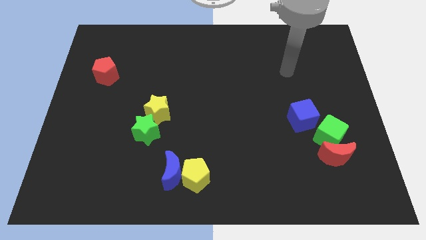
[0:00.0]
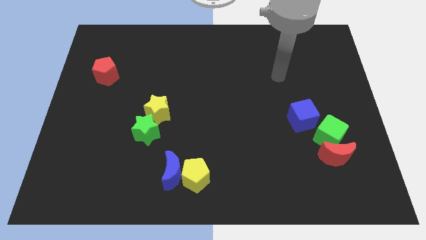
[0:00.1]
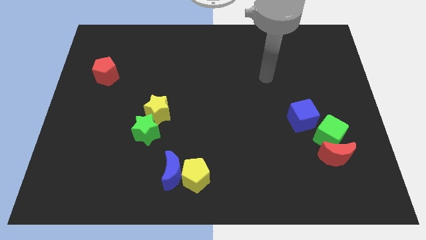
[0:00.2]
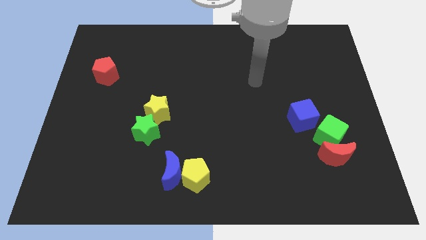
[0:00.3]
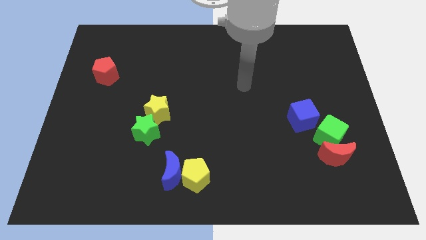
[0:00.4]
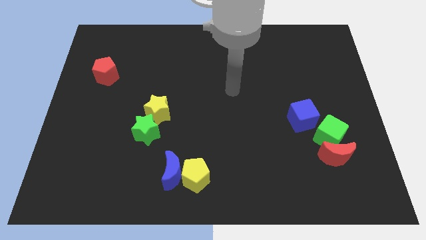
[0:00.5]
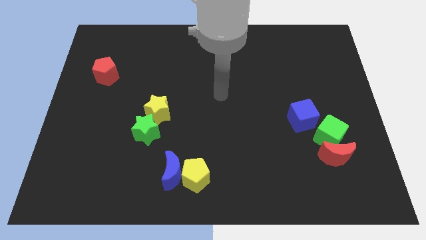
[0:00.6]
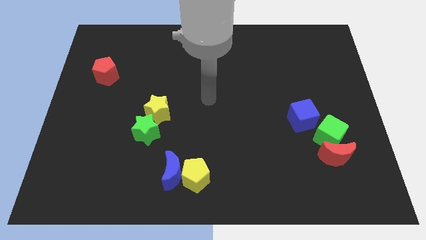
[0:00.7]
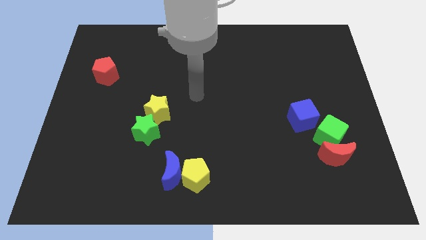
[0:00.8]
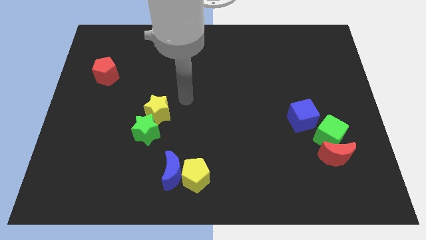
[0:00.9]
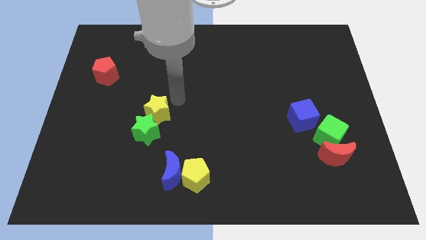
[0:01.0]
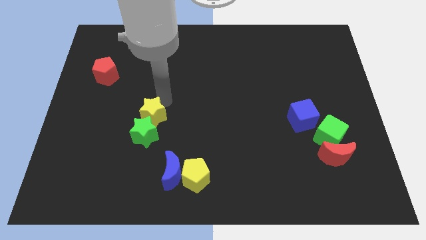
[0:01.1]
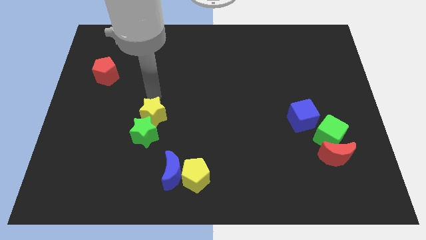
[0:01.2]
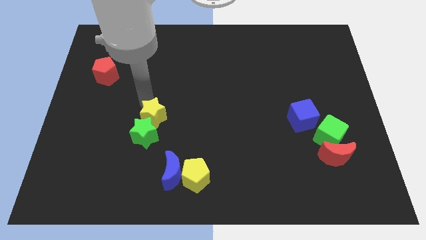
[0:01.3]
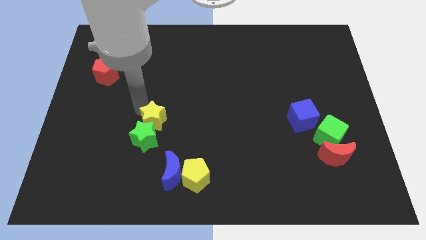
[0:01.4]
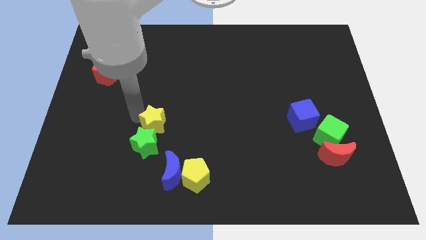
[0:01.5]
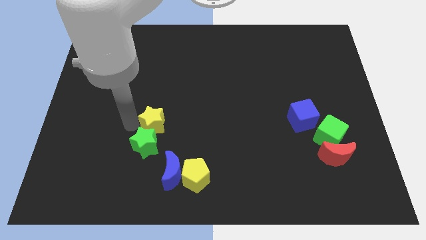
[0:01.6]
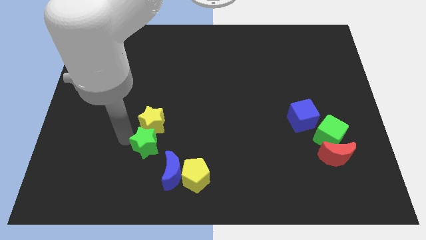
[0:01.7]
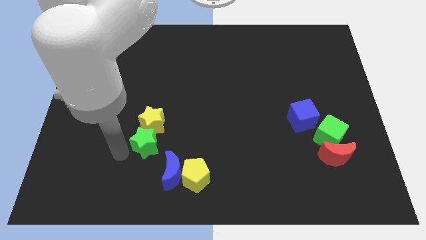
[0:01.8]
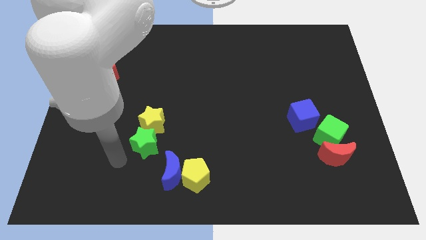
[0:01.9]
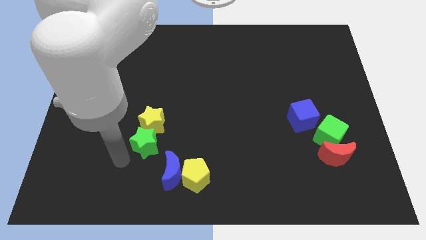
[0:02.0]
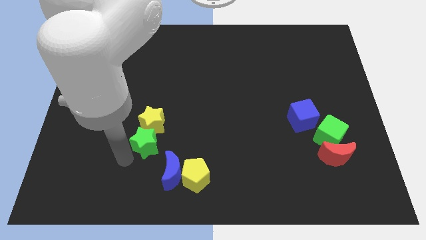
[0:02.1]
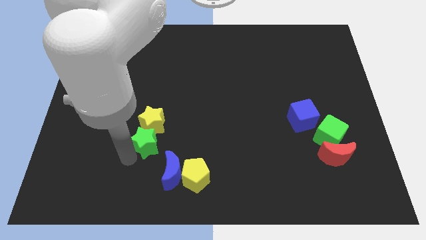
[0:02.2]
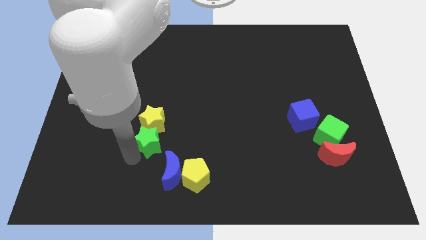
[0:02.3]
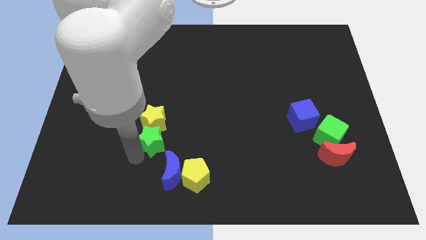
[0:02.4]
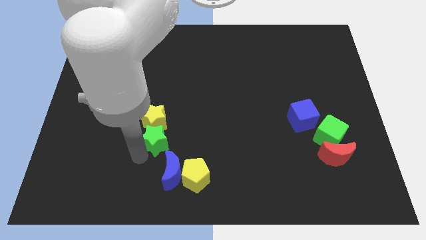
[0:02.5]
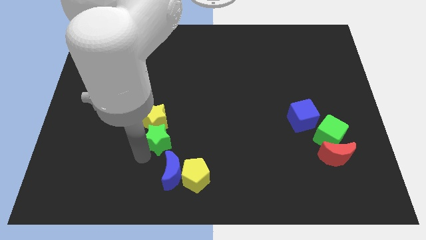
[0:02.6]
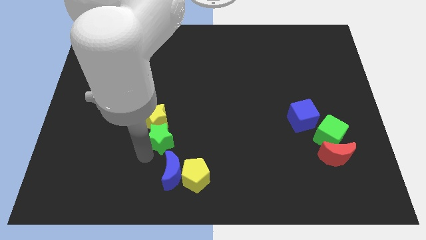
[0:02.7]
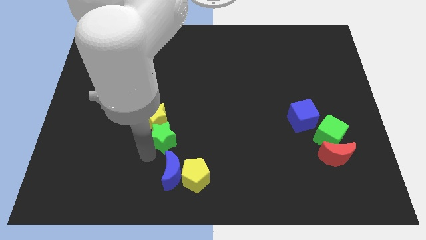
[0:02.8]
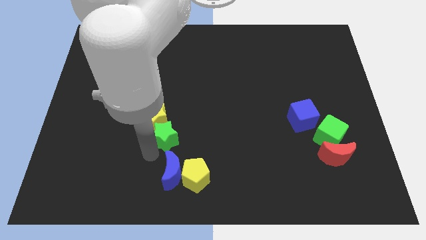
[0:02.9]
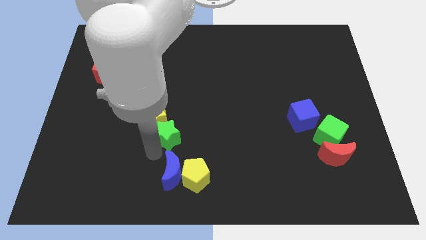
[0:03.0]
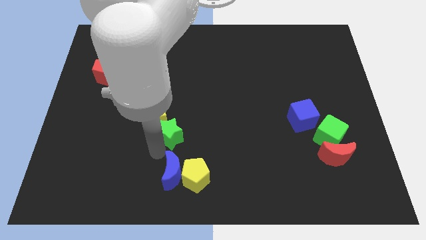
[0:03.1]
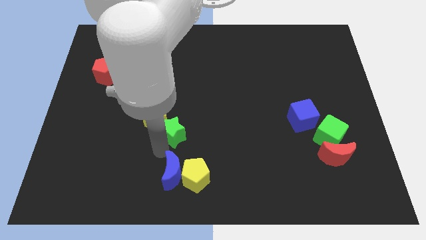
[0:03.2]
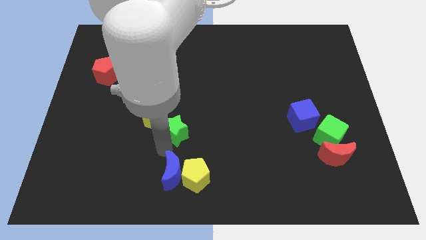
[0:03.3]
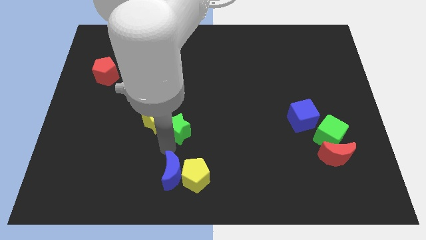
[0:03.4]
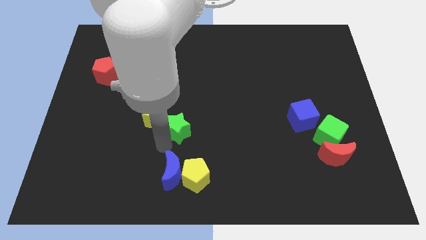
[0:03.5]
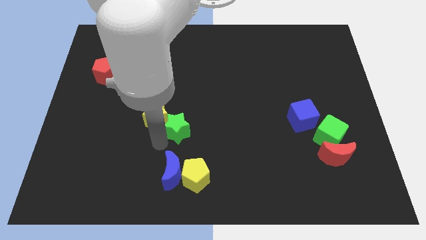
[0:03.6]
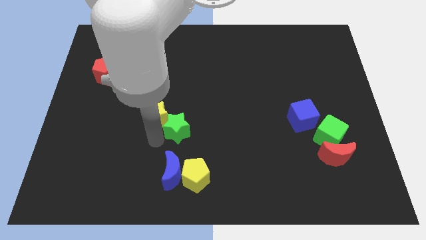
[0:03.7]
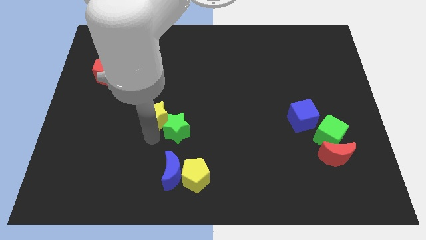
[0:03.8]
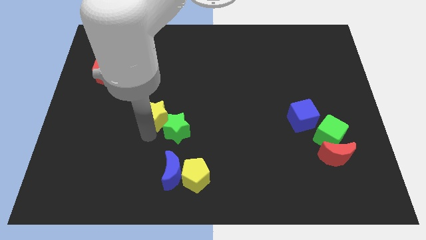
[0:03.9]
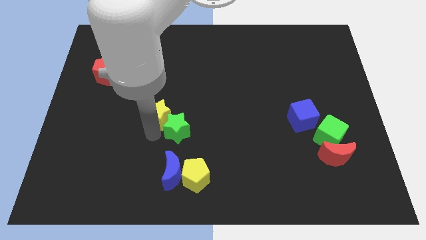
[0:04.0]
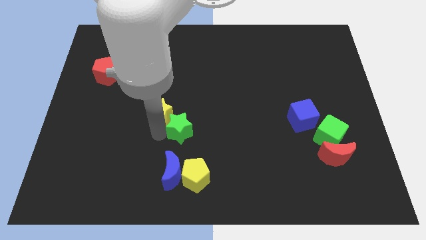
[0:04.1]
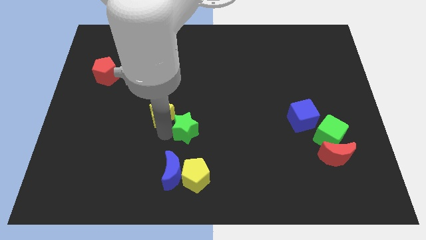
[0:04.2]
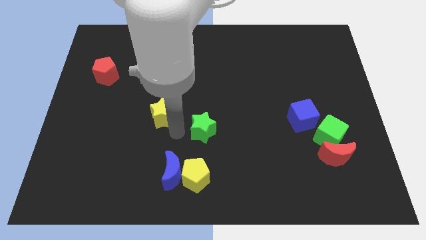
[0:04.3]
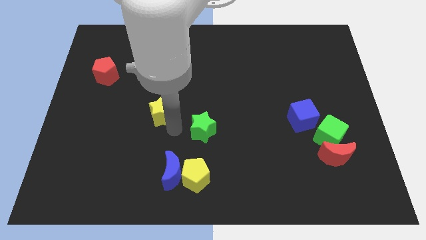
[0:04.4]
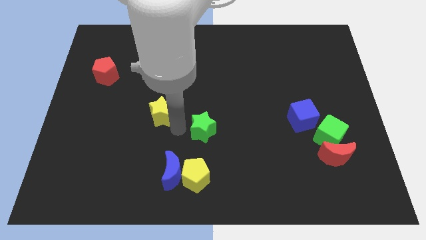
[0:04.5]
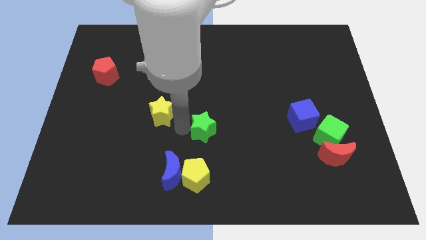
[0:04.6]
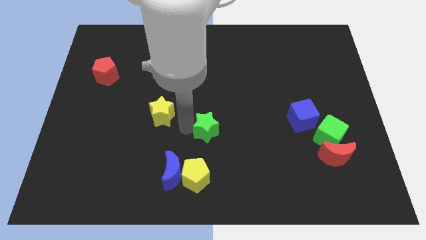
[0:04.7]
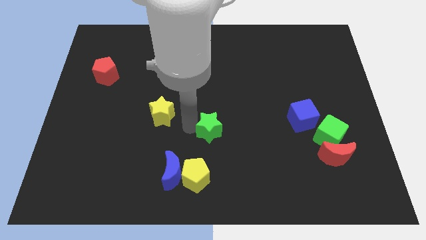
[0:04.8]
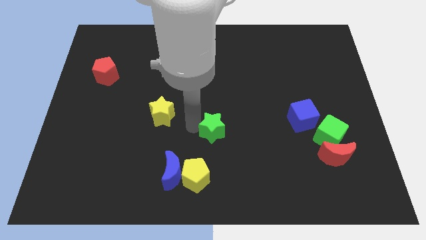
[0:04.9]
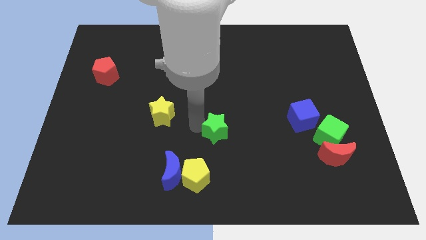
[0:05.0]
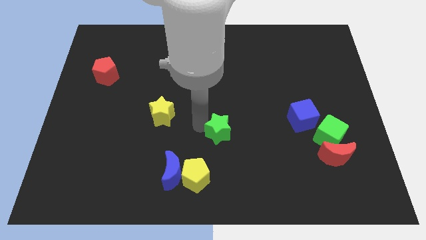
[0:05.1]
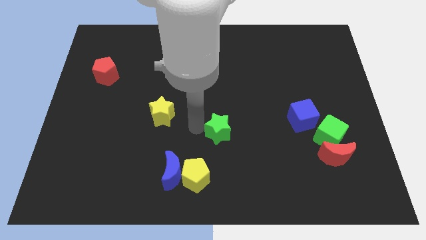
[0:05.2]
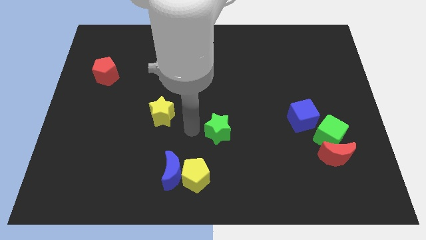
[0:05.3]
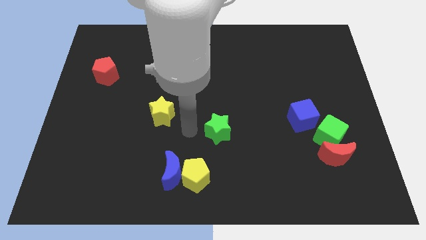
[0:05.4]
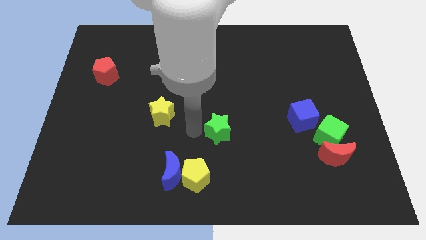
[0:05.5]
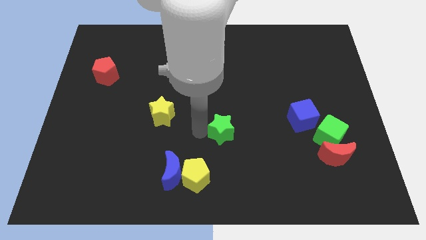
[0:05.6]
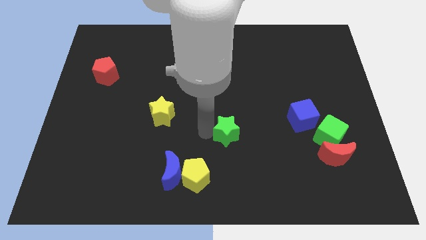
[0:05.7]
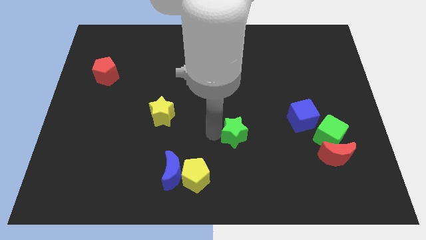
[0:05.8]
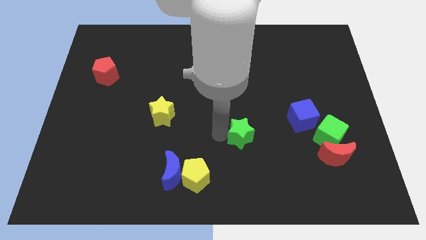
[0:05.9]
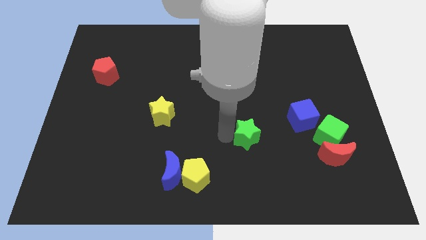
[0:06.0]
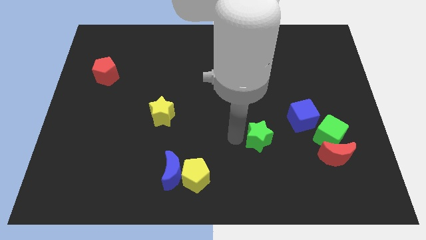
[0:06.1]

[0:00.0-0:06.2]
push the green star to the left of the green cube
